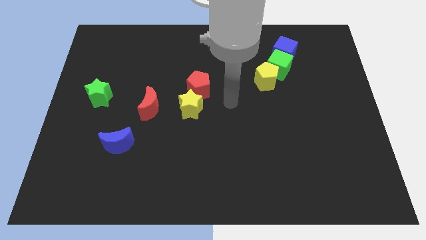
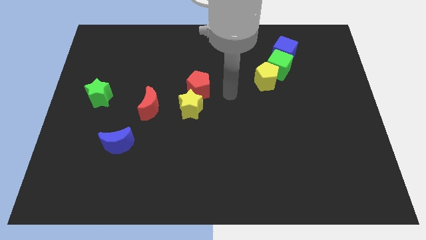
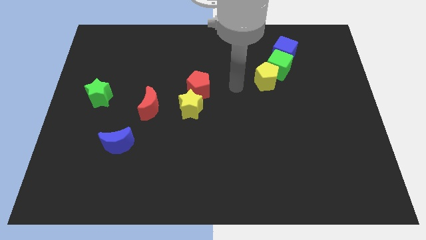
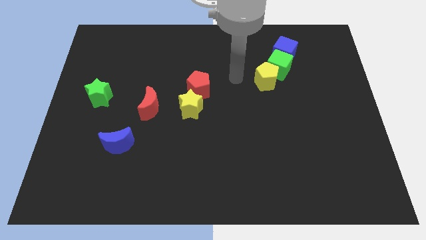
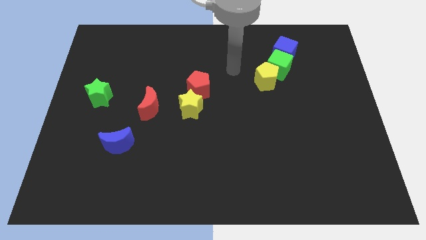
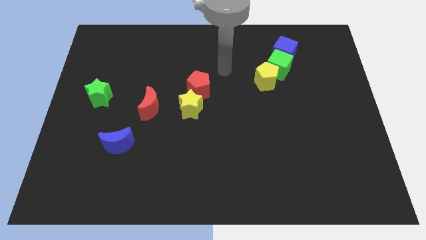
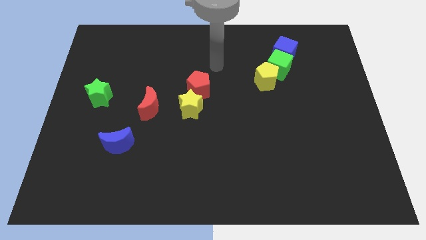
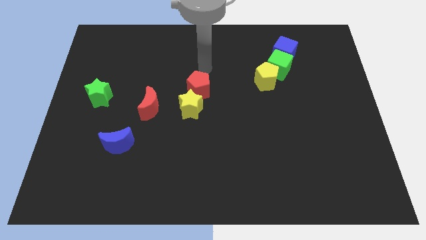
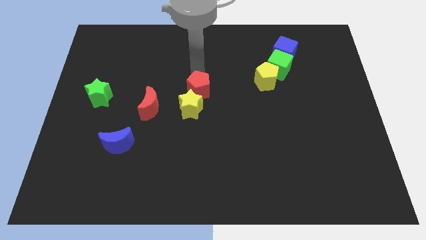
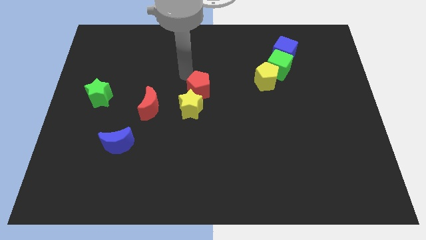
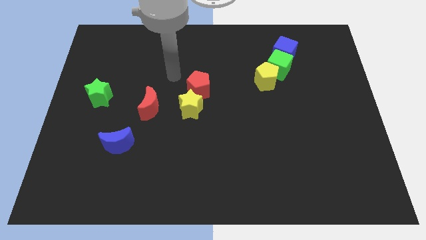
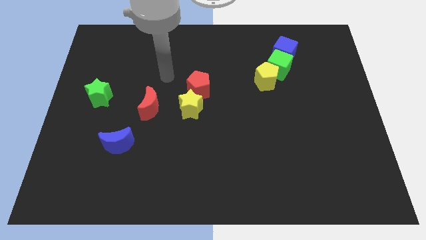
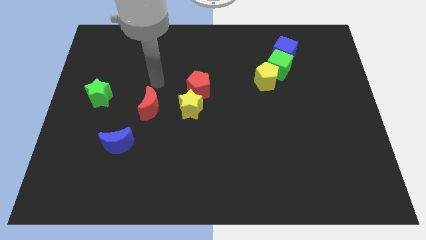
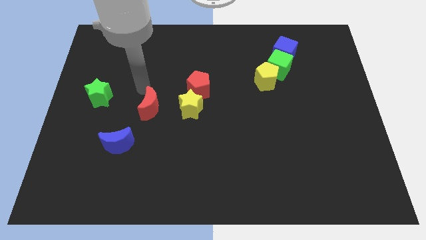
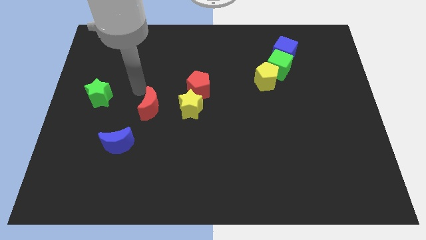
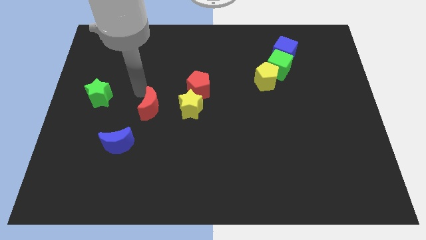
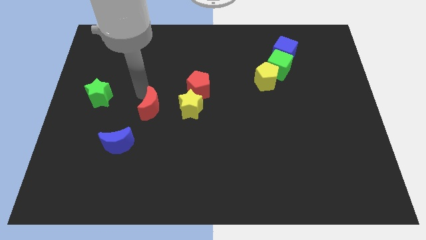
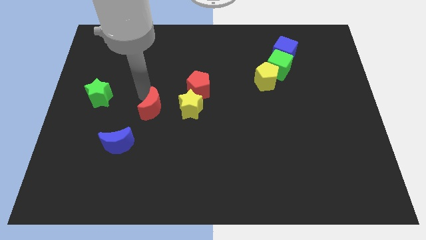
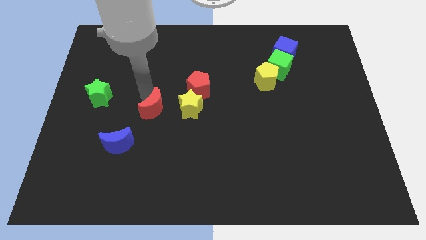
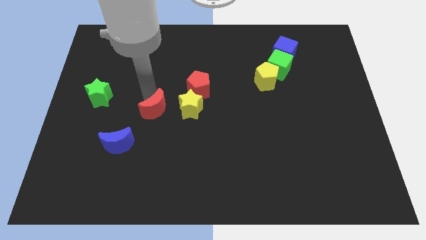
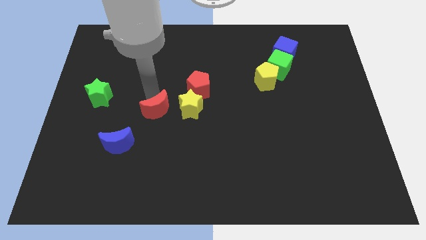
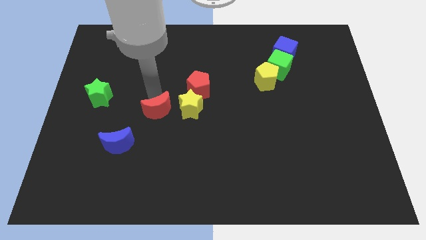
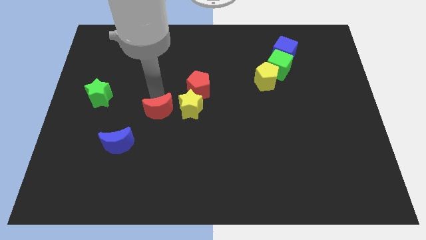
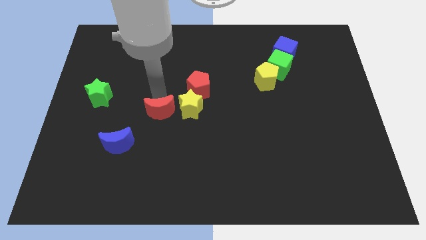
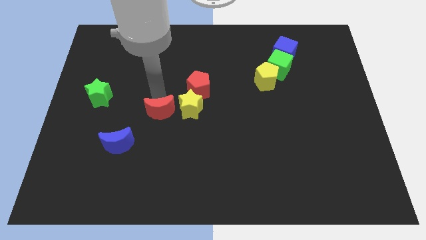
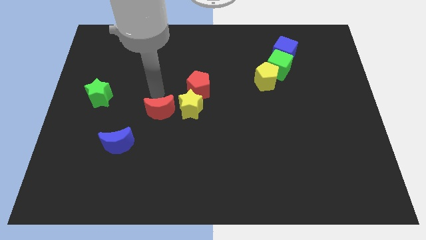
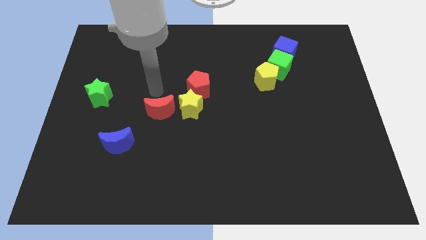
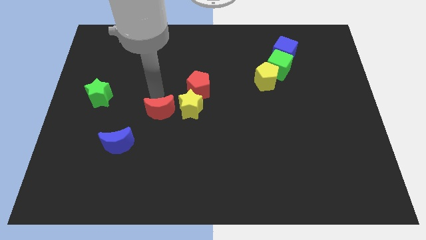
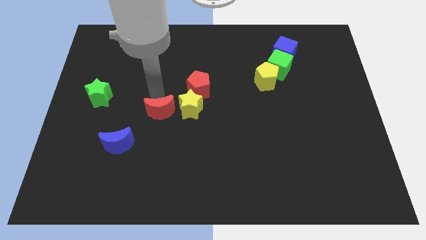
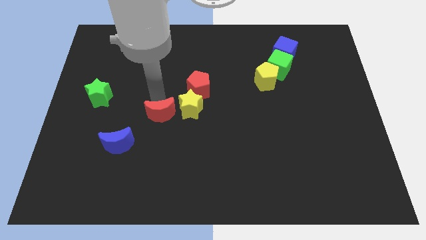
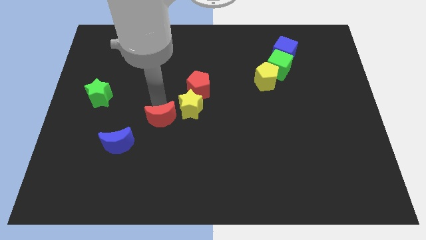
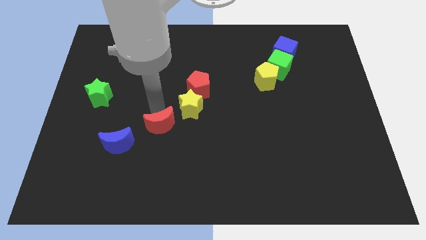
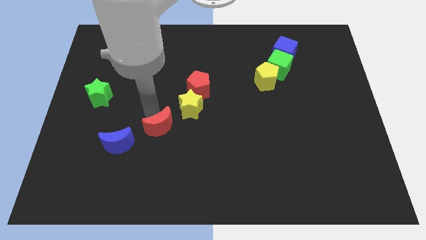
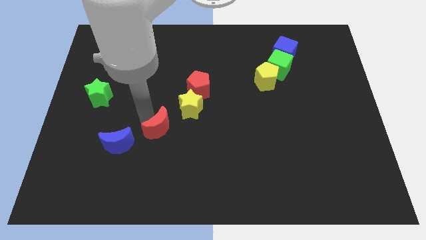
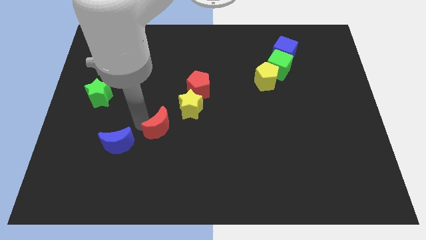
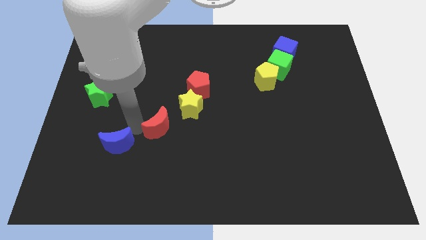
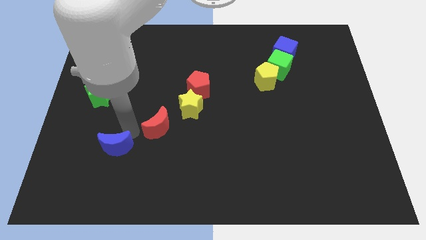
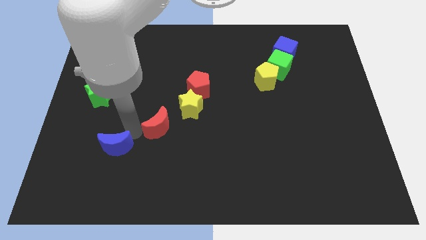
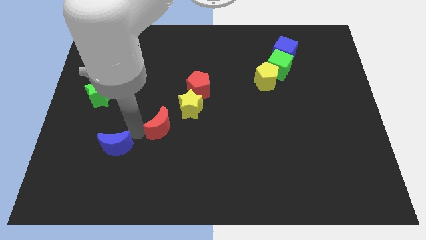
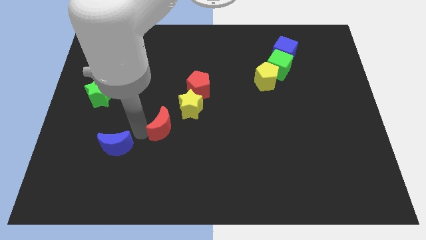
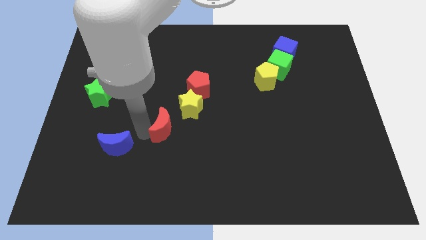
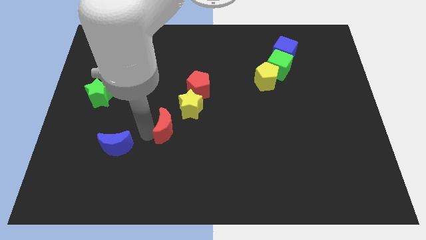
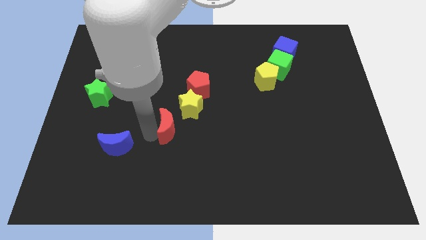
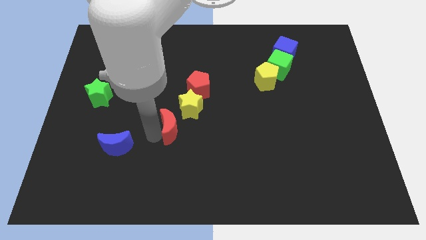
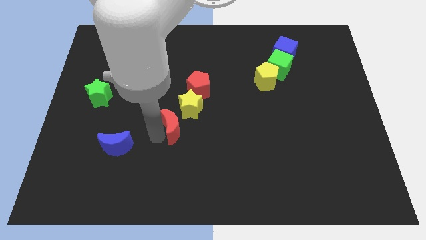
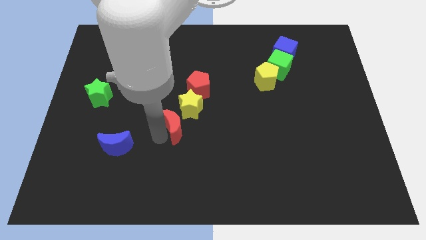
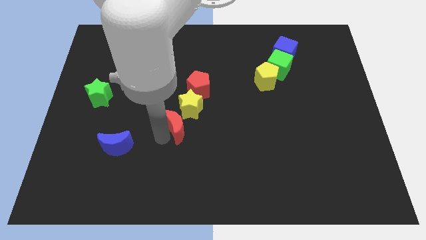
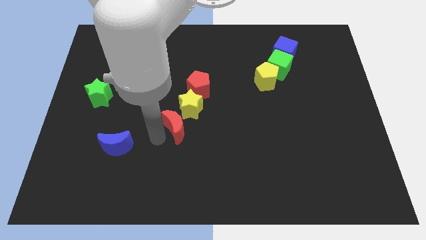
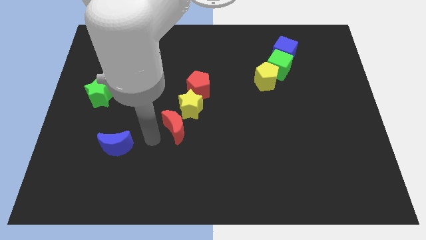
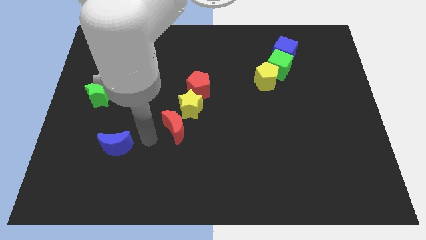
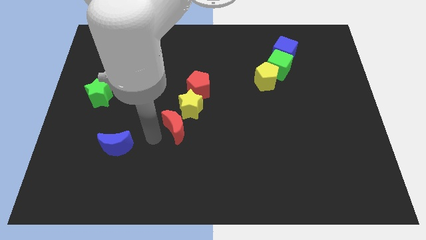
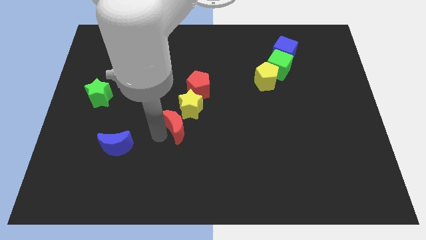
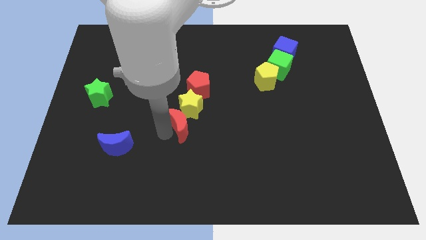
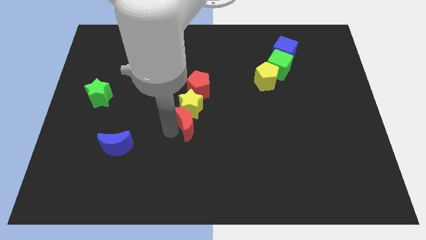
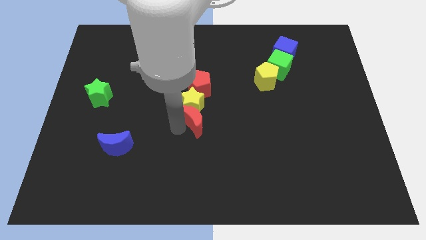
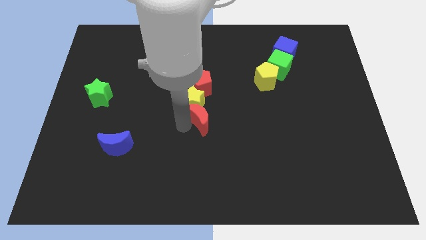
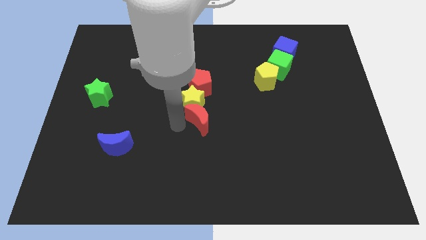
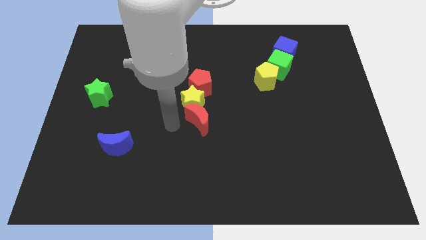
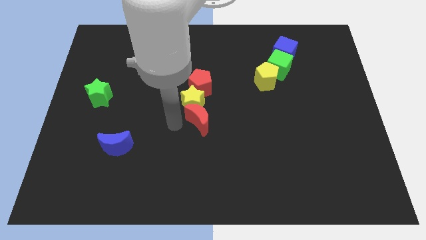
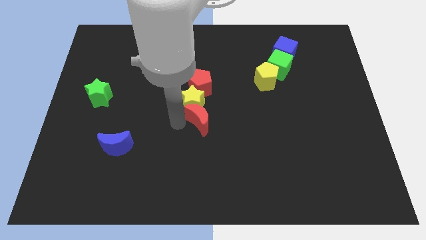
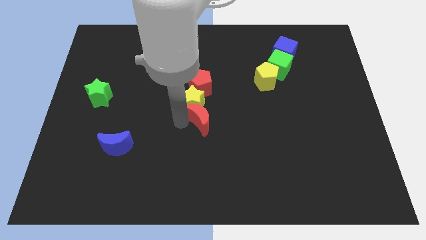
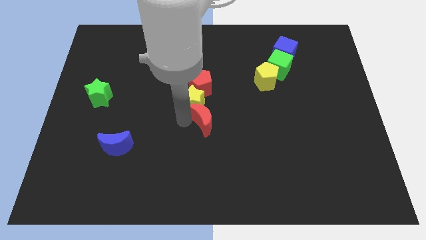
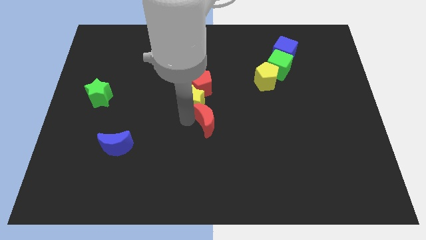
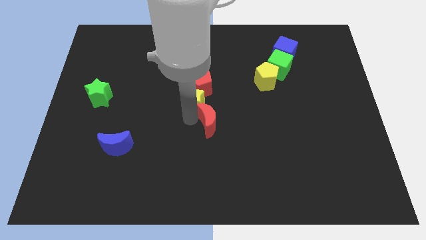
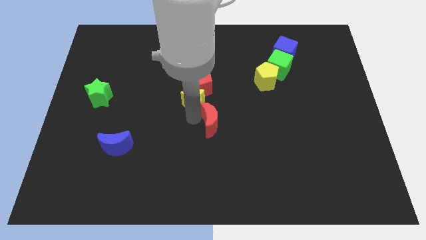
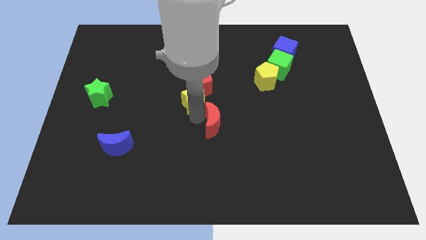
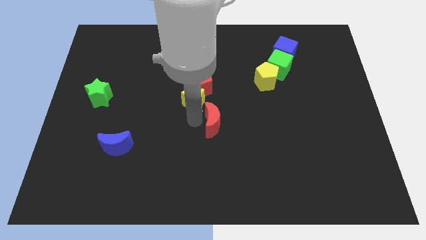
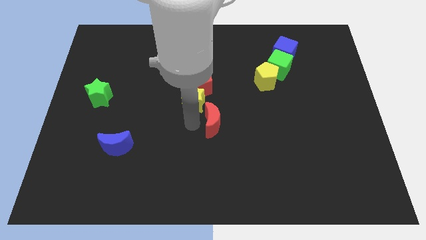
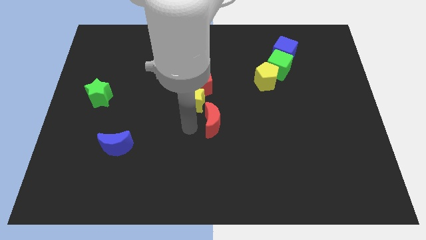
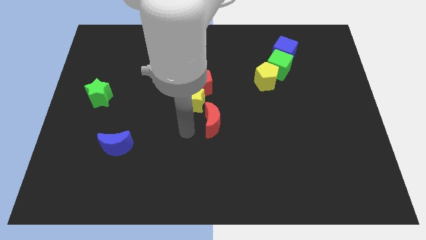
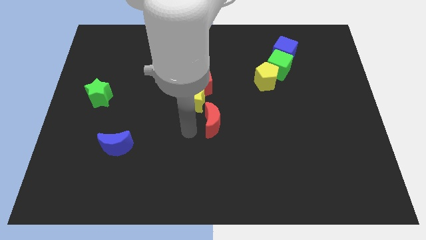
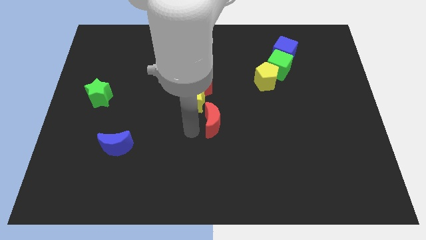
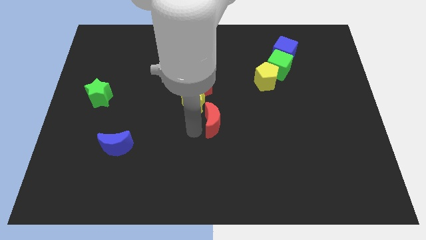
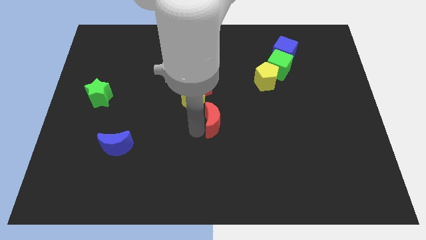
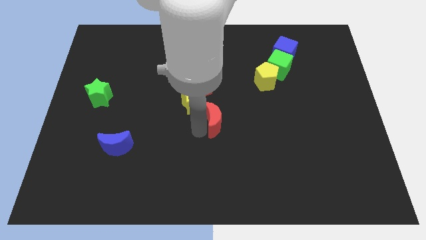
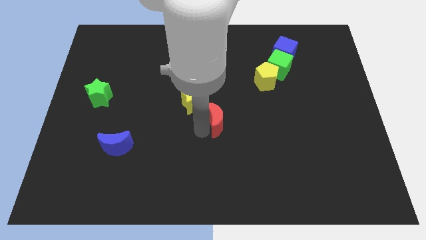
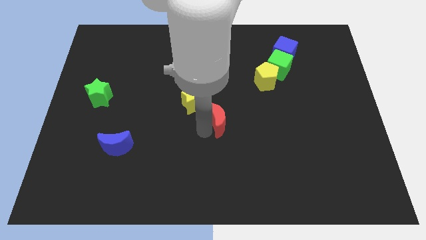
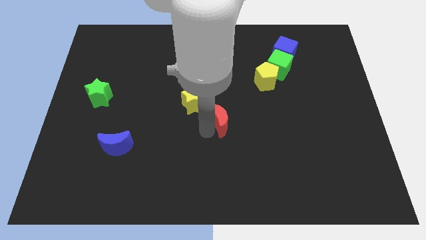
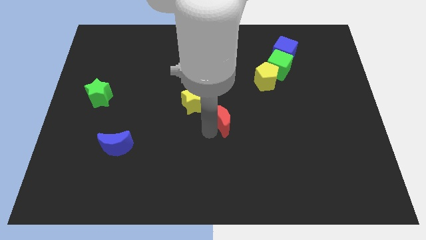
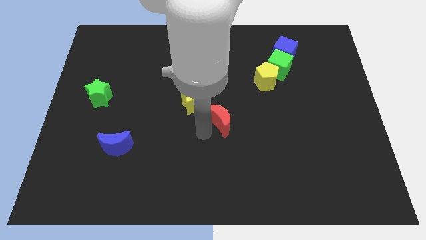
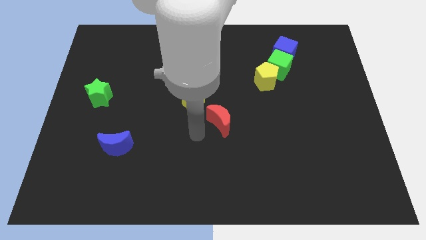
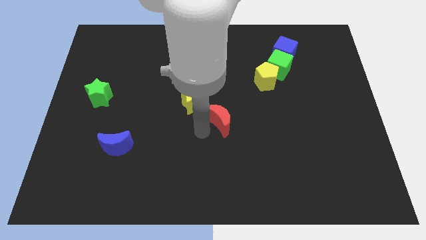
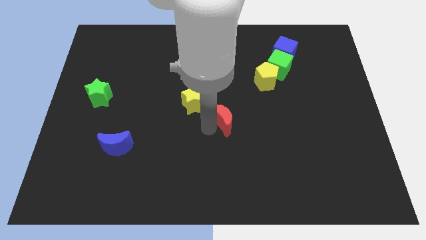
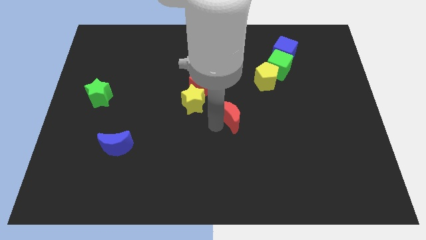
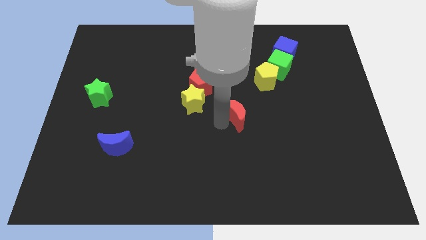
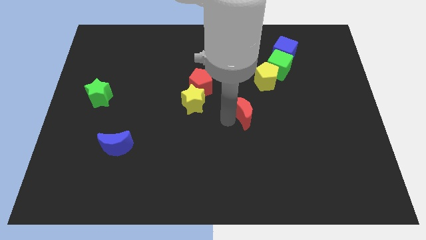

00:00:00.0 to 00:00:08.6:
slide the red moon to the right

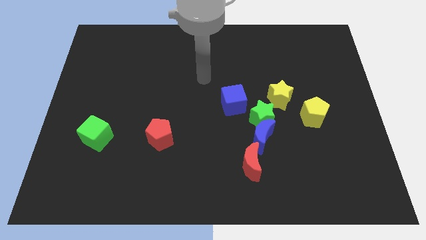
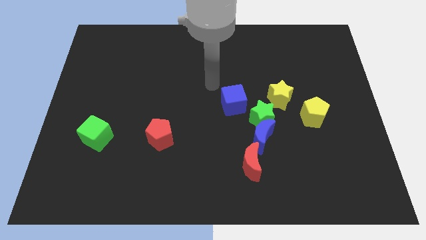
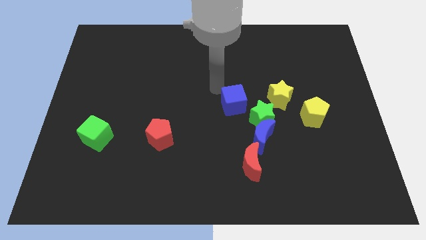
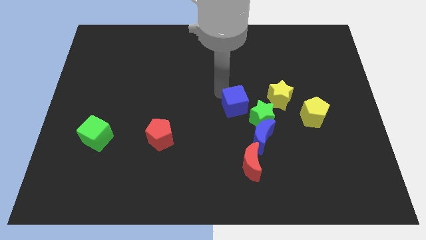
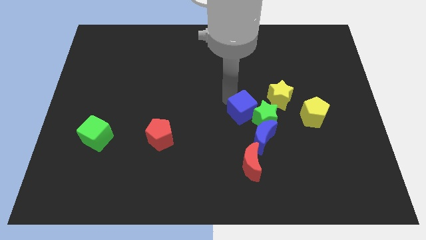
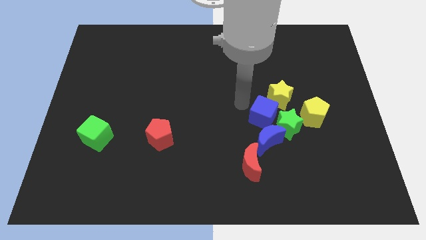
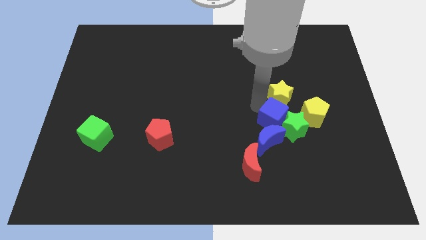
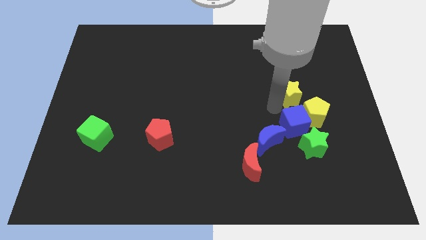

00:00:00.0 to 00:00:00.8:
move the green star diagonally downwards and to the right slightly
